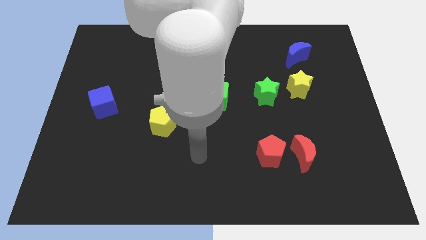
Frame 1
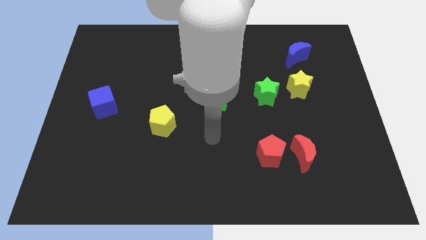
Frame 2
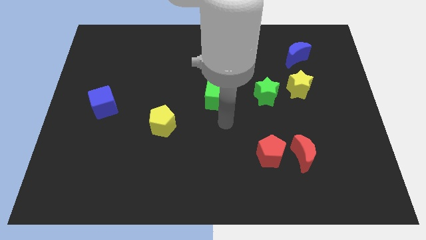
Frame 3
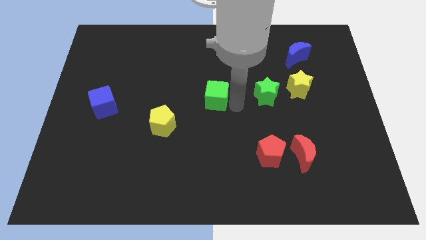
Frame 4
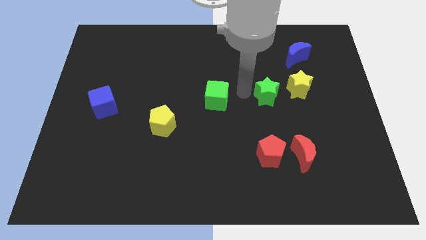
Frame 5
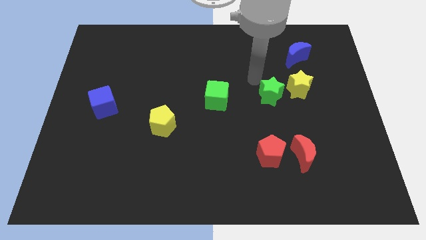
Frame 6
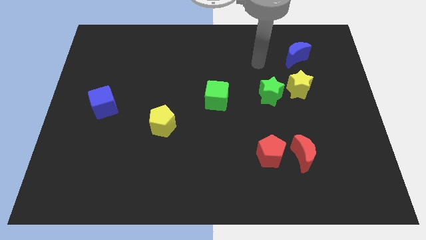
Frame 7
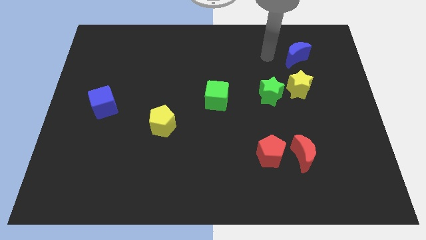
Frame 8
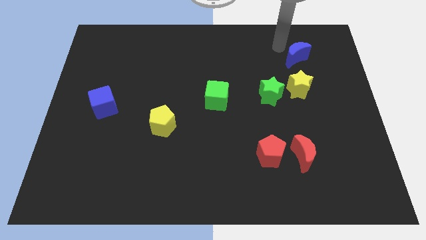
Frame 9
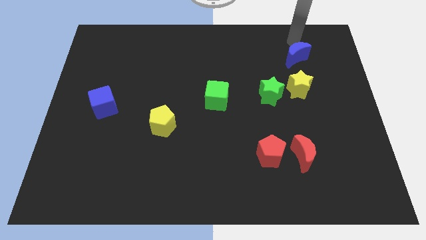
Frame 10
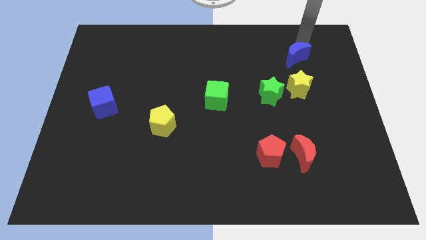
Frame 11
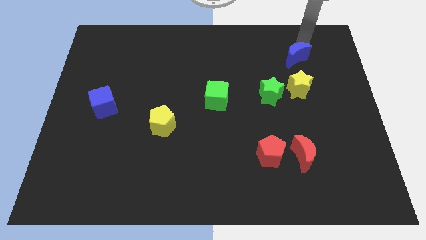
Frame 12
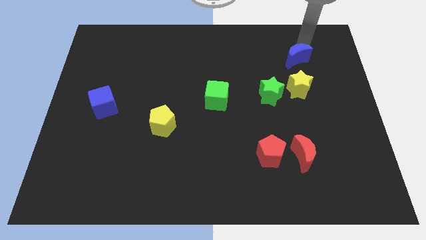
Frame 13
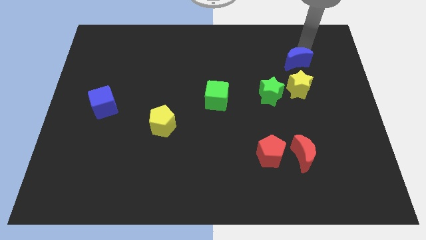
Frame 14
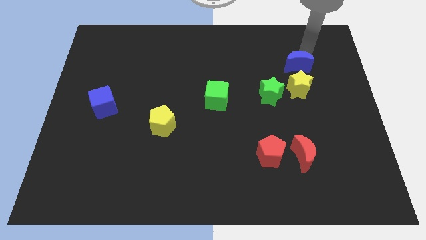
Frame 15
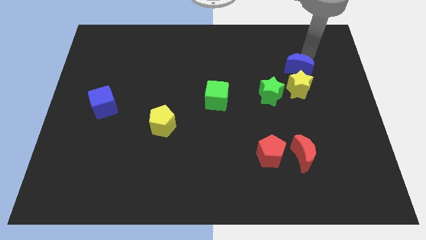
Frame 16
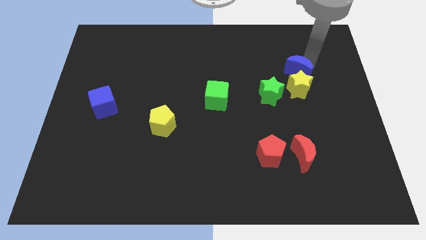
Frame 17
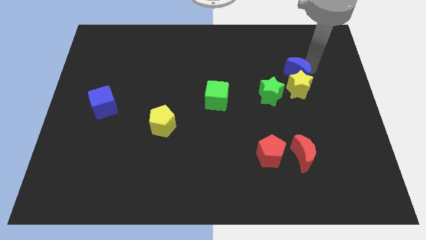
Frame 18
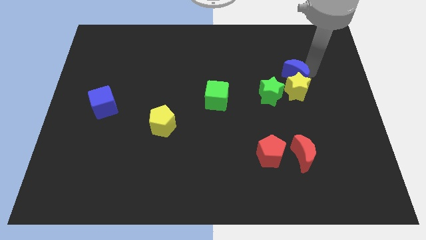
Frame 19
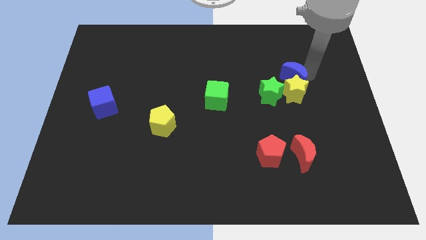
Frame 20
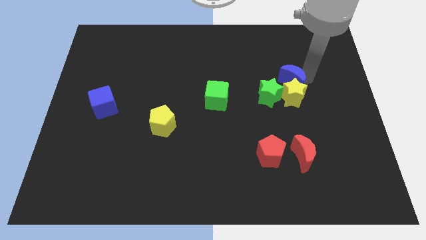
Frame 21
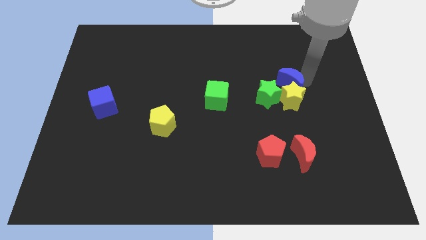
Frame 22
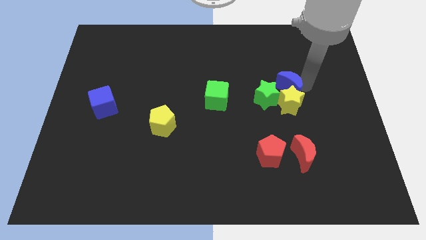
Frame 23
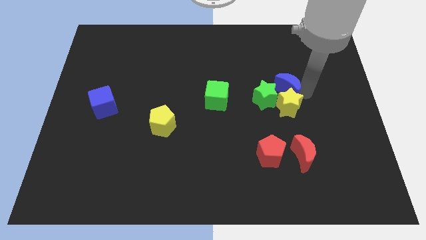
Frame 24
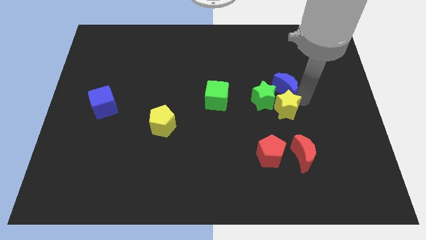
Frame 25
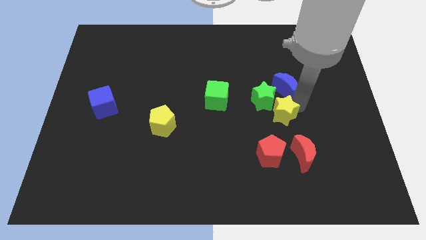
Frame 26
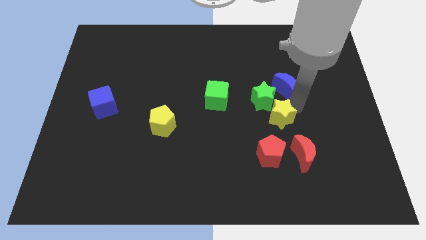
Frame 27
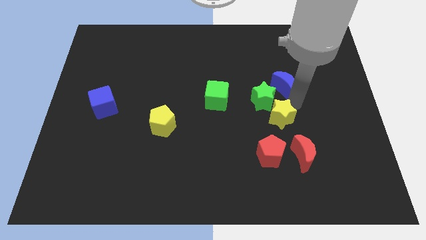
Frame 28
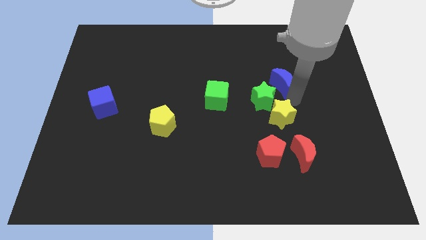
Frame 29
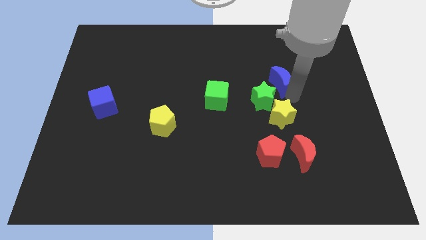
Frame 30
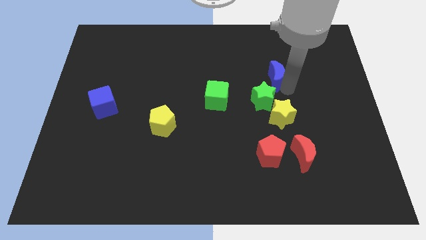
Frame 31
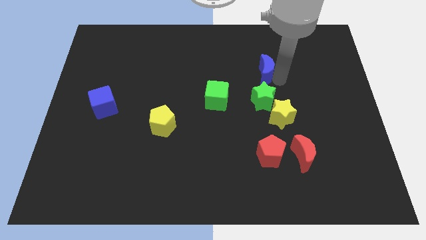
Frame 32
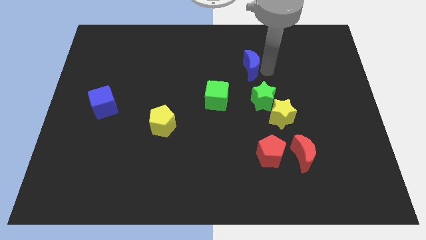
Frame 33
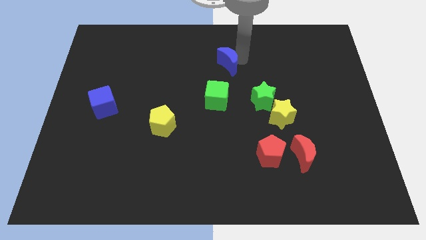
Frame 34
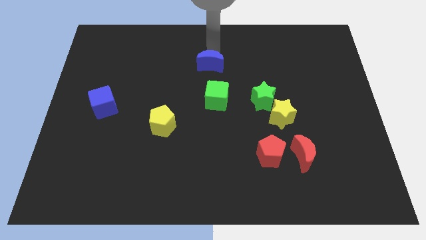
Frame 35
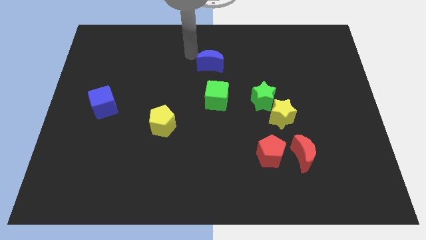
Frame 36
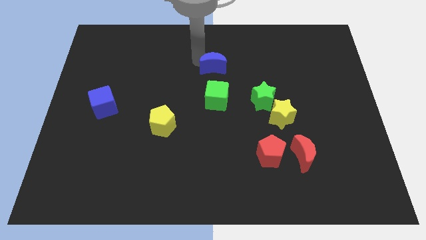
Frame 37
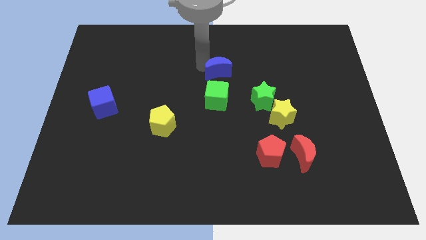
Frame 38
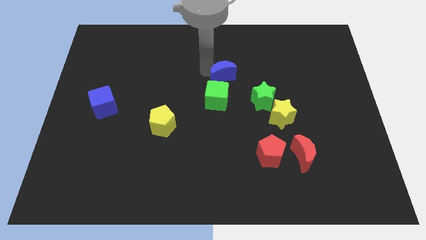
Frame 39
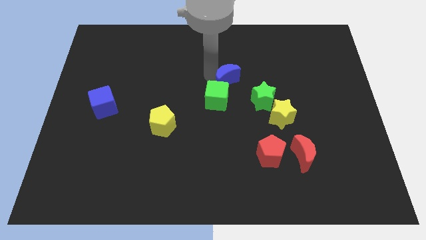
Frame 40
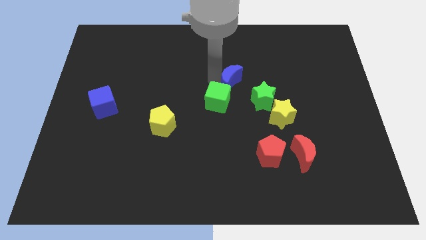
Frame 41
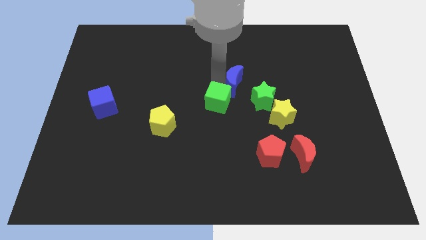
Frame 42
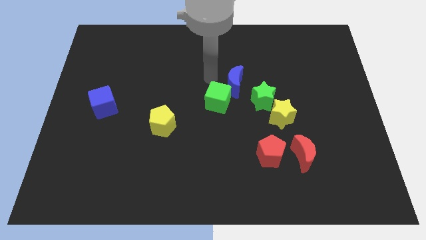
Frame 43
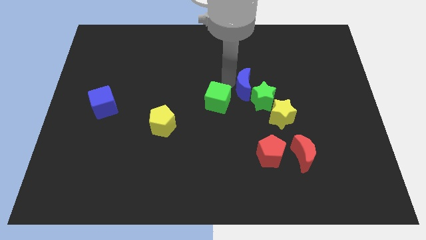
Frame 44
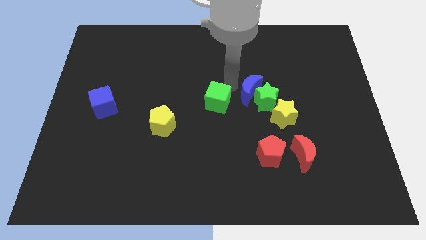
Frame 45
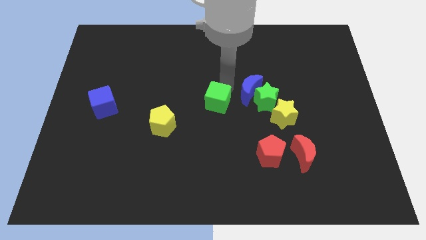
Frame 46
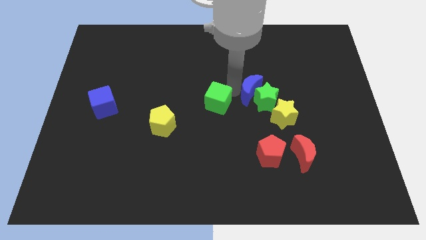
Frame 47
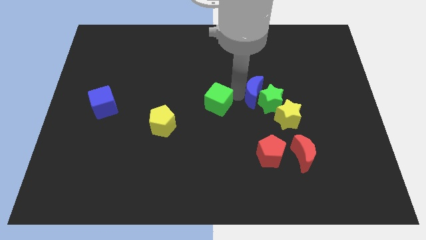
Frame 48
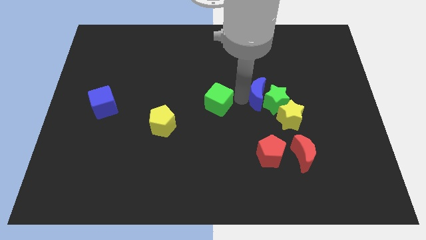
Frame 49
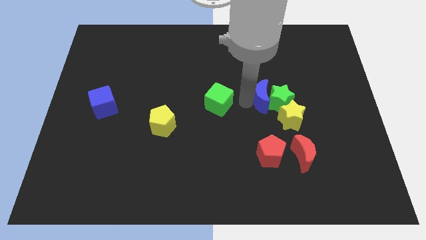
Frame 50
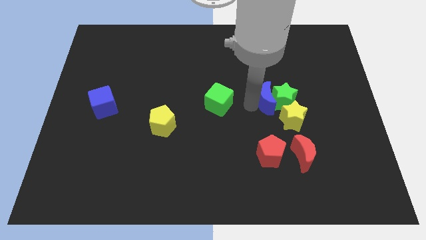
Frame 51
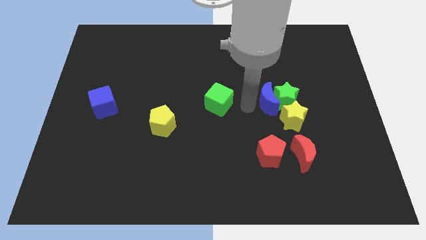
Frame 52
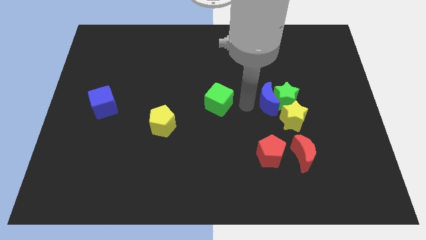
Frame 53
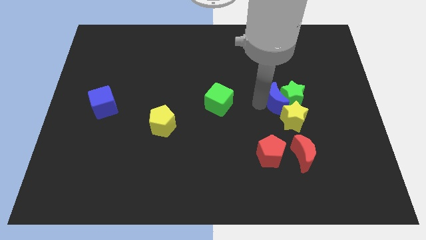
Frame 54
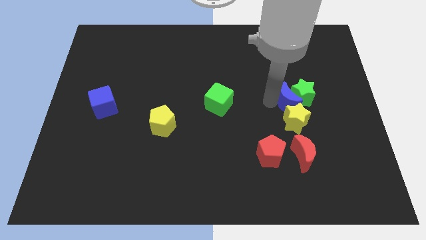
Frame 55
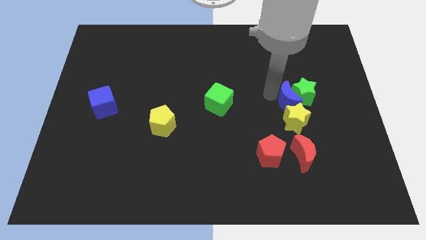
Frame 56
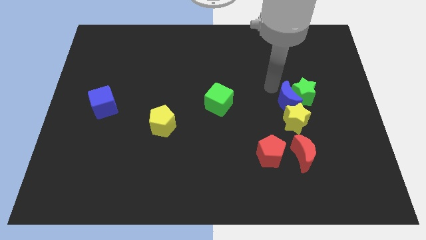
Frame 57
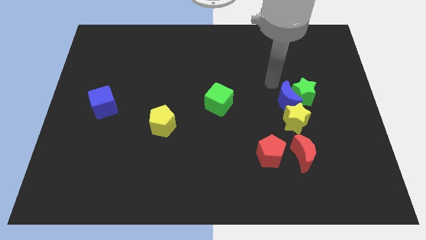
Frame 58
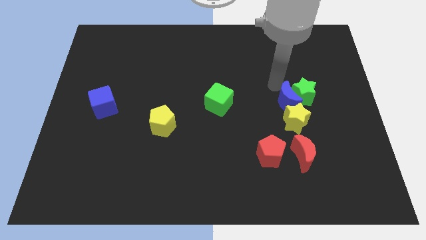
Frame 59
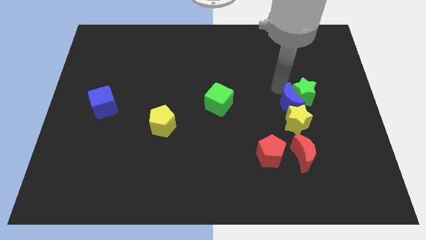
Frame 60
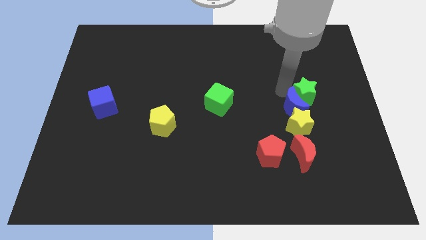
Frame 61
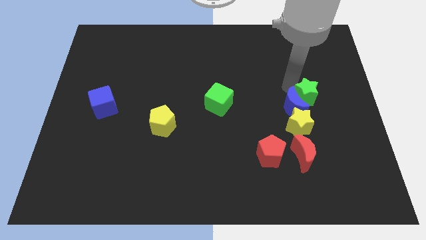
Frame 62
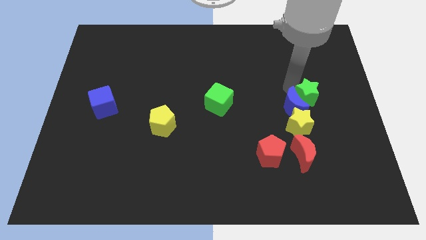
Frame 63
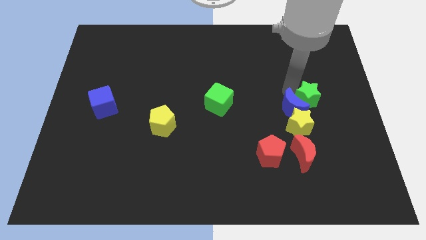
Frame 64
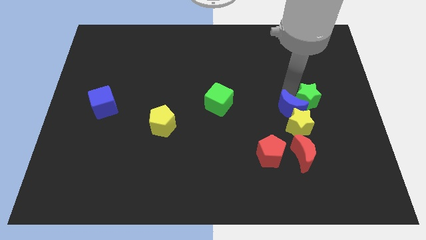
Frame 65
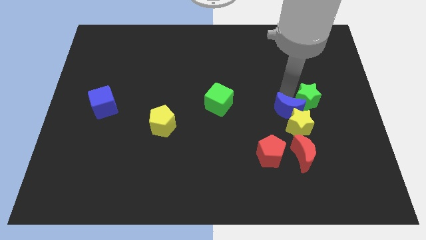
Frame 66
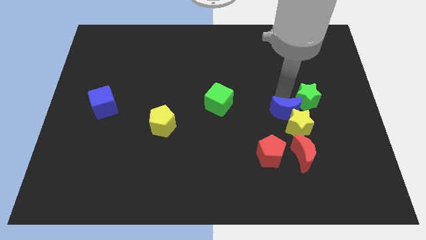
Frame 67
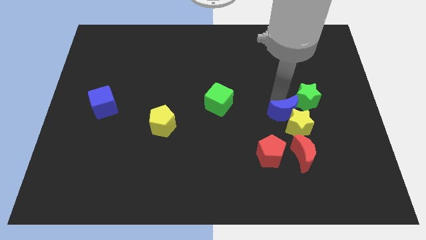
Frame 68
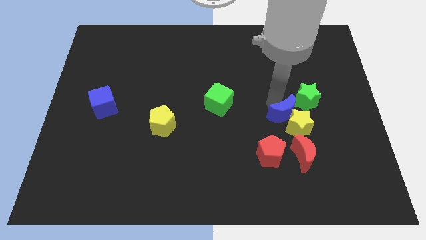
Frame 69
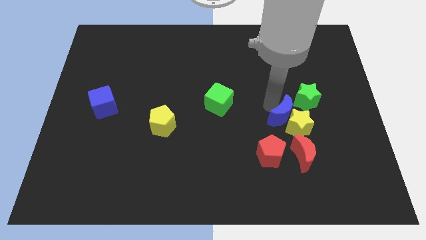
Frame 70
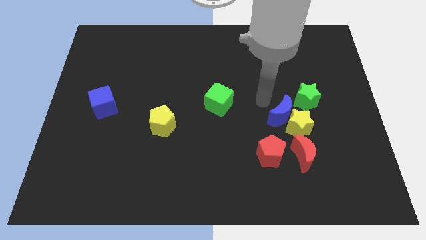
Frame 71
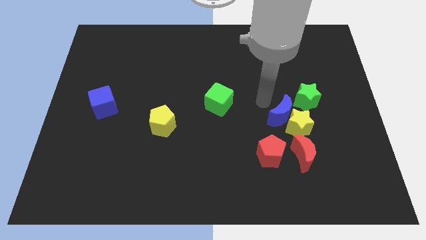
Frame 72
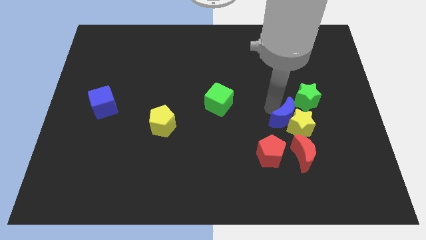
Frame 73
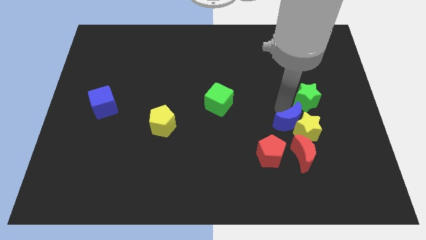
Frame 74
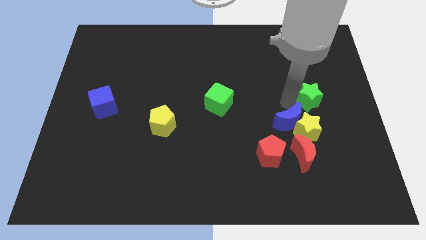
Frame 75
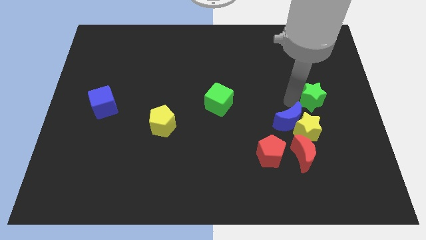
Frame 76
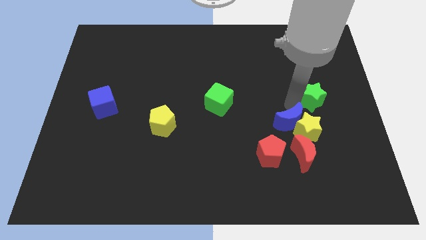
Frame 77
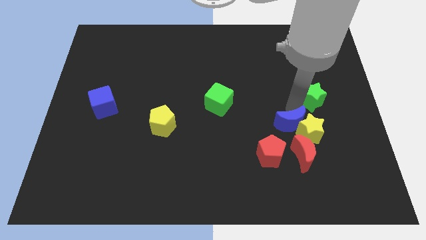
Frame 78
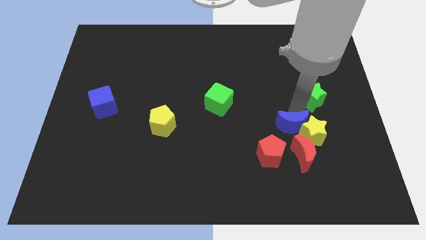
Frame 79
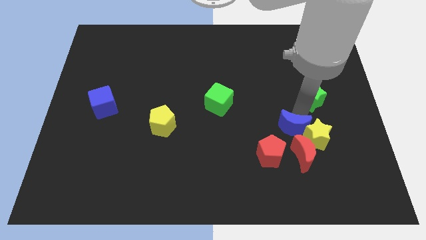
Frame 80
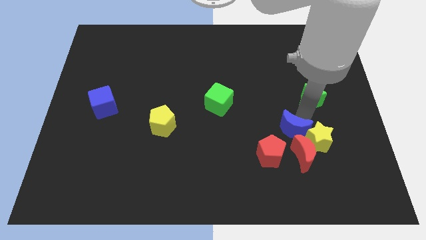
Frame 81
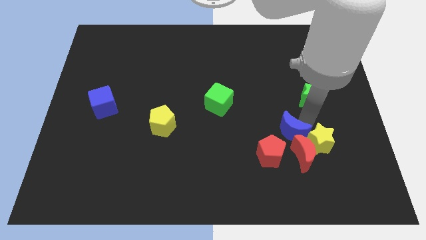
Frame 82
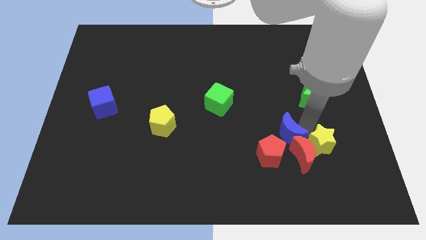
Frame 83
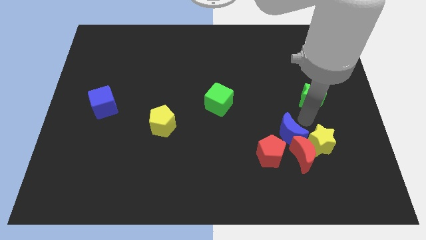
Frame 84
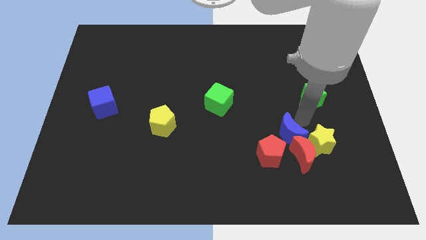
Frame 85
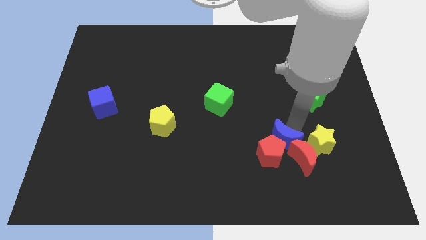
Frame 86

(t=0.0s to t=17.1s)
slide the blue moon next to the red pentagon
